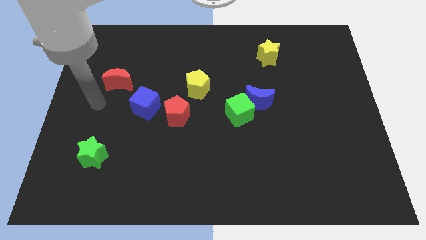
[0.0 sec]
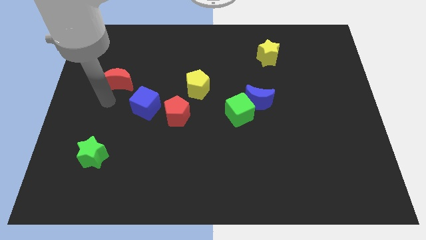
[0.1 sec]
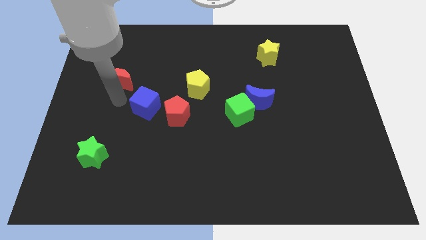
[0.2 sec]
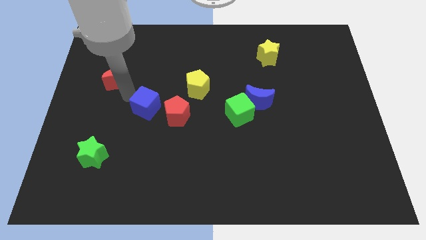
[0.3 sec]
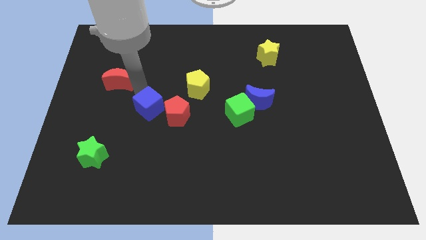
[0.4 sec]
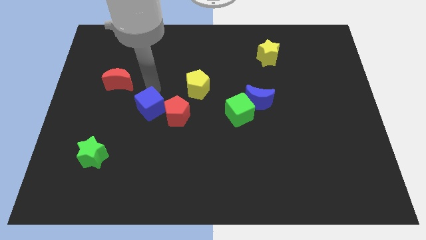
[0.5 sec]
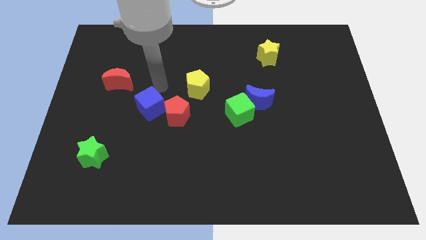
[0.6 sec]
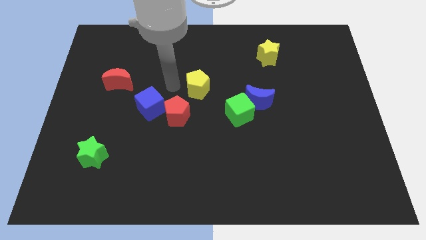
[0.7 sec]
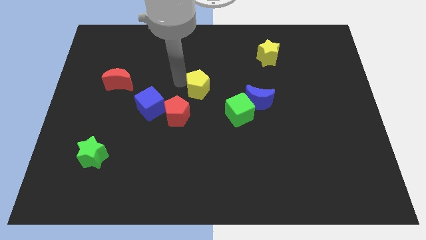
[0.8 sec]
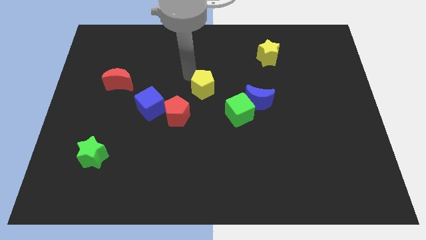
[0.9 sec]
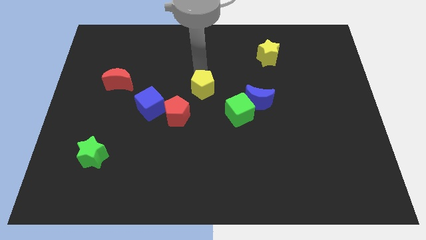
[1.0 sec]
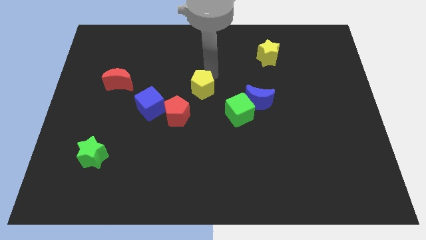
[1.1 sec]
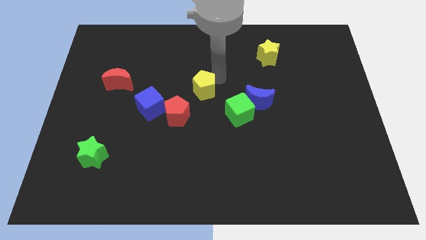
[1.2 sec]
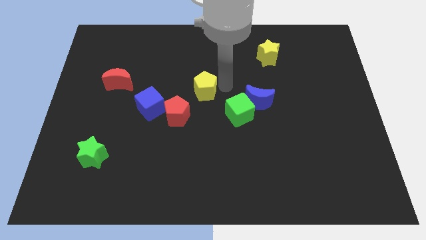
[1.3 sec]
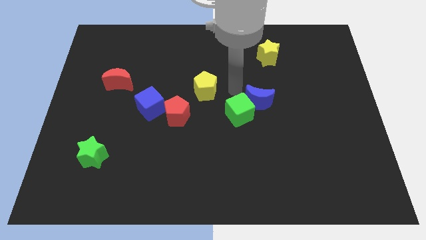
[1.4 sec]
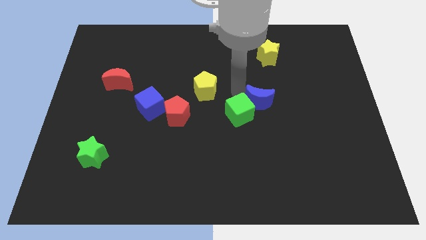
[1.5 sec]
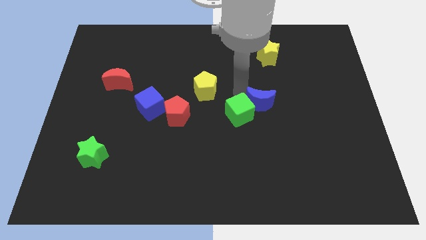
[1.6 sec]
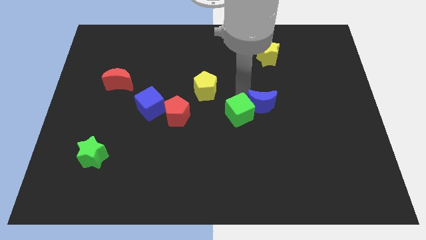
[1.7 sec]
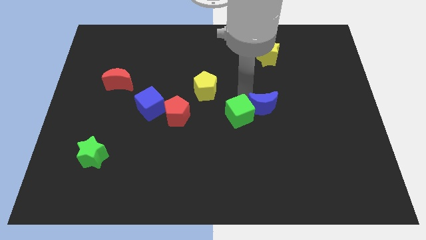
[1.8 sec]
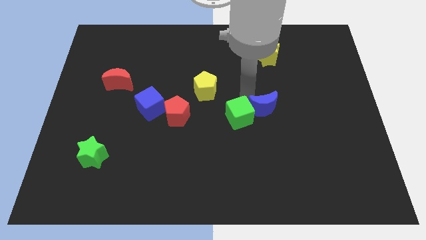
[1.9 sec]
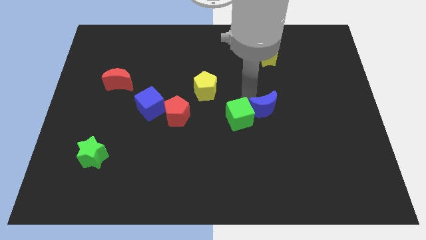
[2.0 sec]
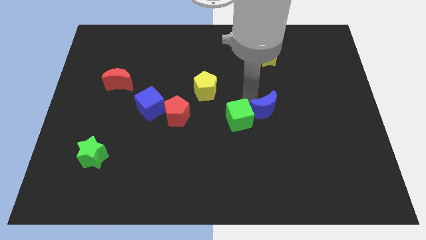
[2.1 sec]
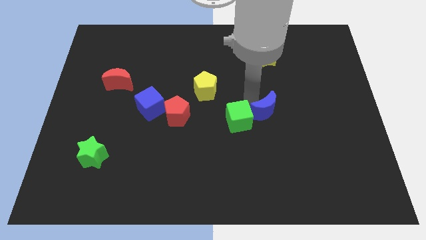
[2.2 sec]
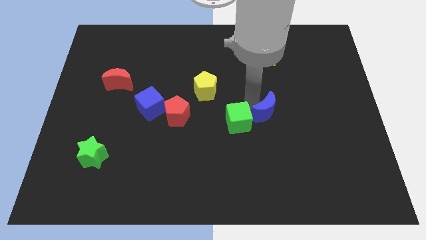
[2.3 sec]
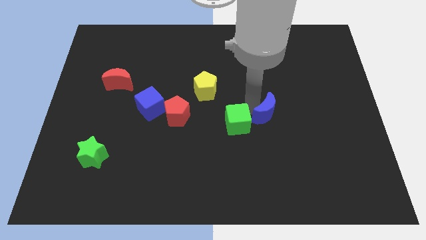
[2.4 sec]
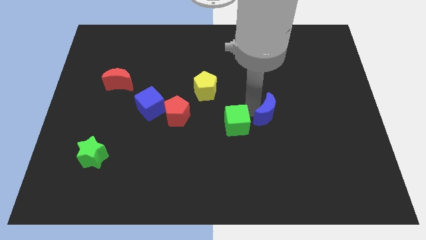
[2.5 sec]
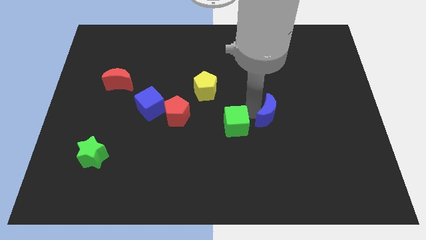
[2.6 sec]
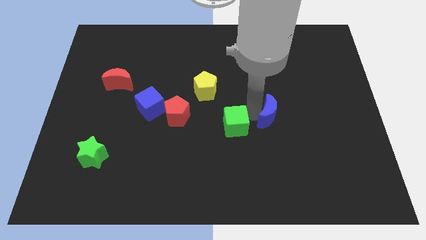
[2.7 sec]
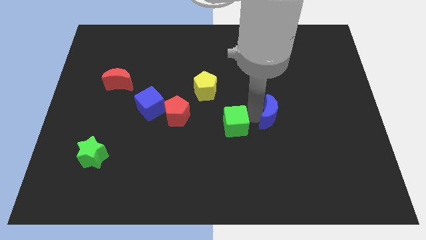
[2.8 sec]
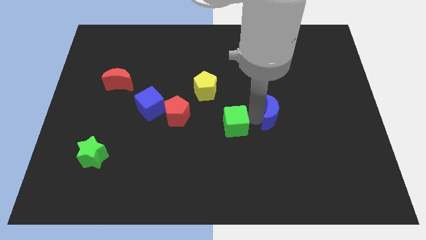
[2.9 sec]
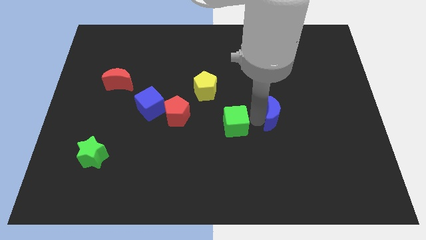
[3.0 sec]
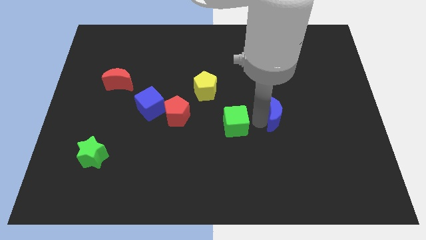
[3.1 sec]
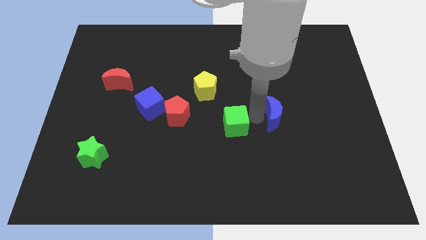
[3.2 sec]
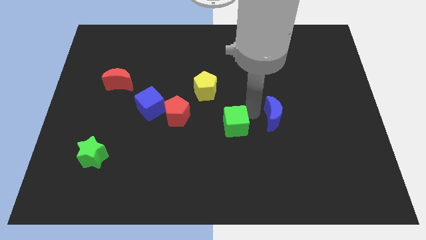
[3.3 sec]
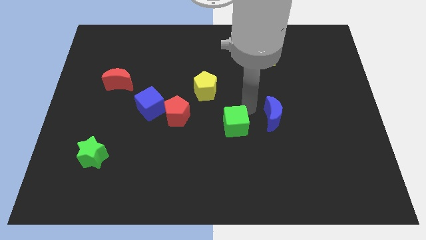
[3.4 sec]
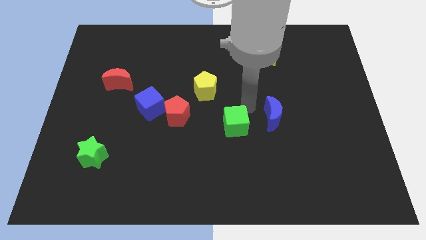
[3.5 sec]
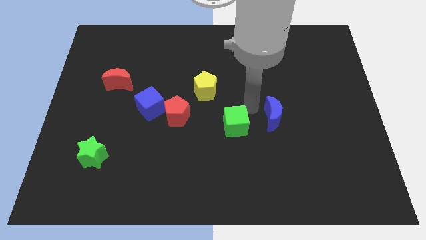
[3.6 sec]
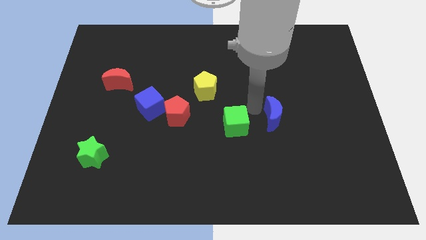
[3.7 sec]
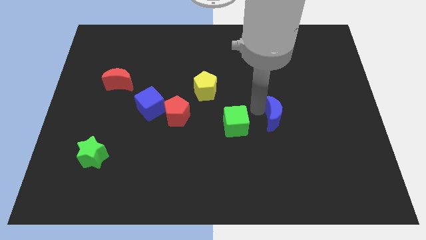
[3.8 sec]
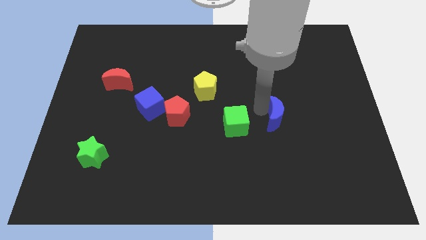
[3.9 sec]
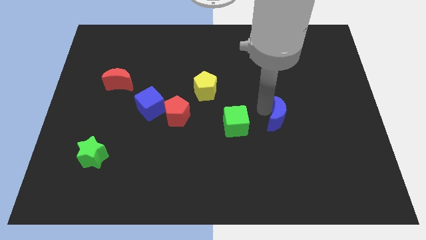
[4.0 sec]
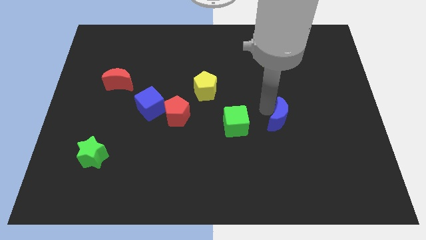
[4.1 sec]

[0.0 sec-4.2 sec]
slightly push the blue moon down and then to the right

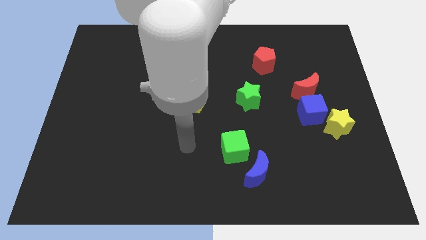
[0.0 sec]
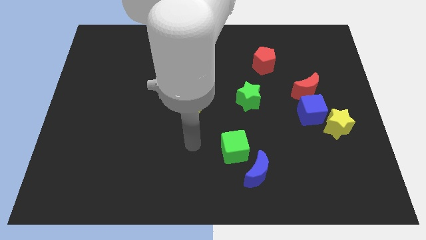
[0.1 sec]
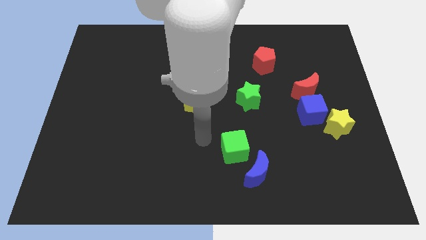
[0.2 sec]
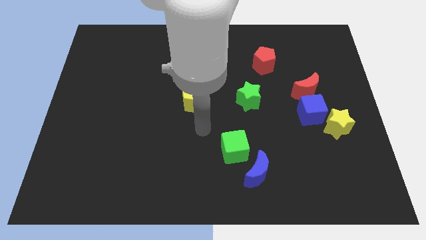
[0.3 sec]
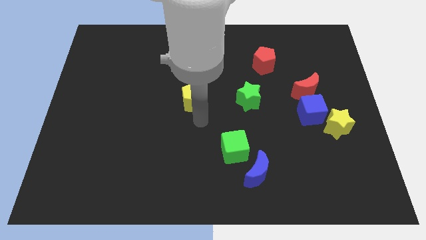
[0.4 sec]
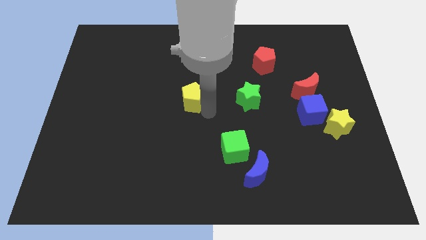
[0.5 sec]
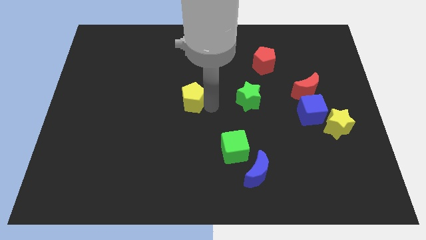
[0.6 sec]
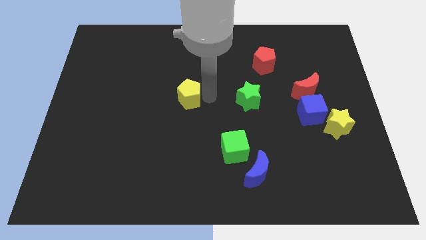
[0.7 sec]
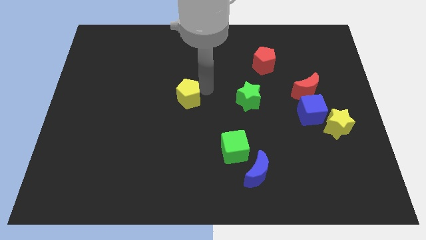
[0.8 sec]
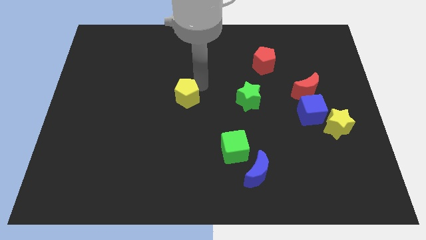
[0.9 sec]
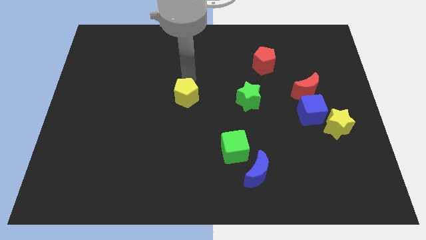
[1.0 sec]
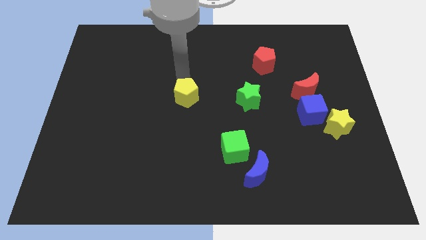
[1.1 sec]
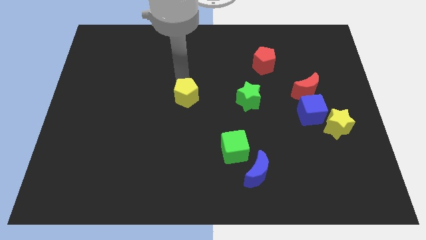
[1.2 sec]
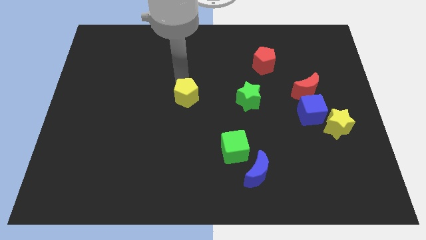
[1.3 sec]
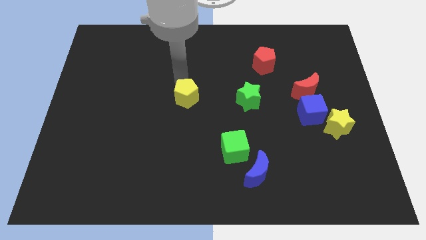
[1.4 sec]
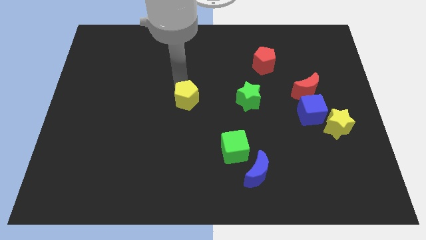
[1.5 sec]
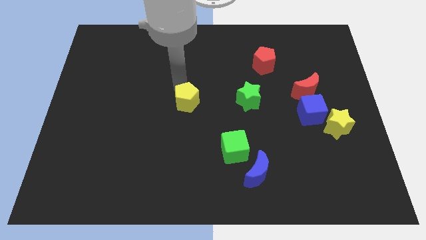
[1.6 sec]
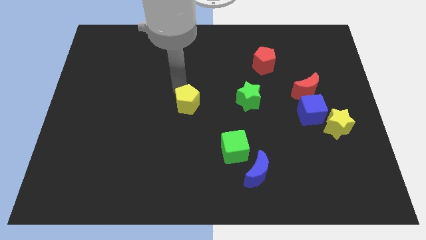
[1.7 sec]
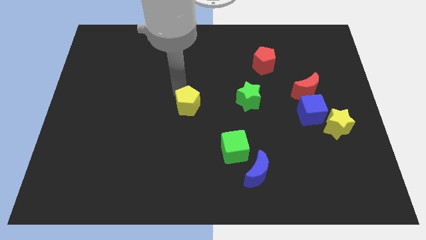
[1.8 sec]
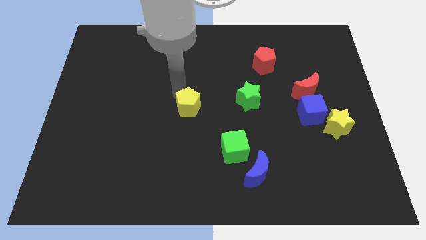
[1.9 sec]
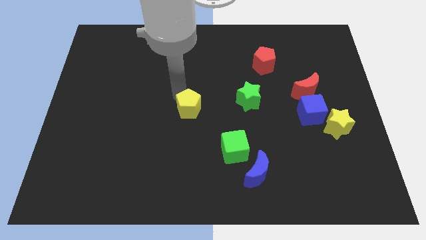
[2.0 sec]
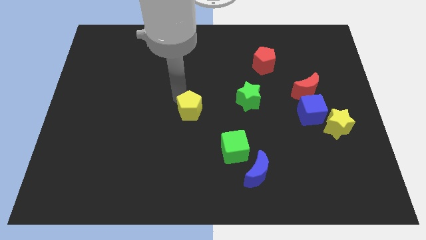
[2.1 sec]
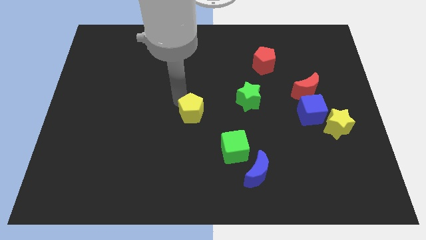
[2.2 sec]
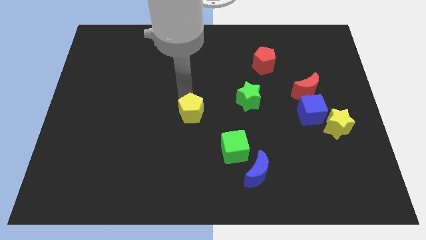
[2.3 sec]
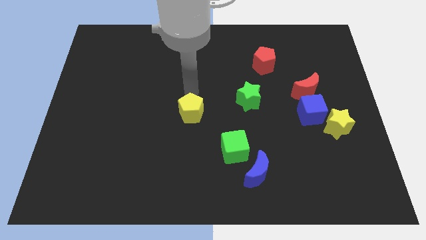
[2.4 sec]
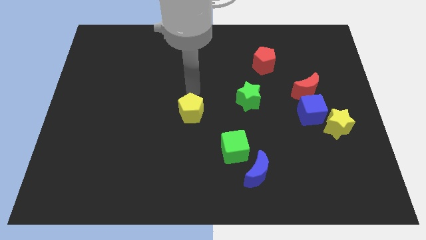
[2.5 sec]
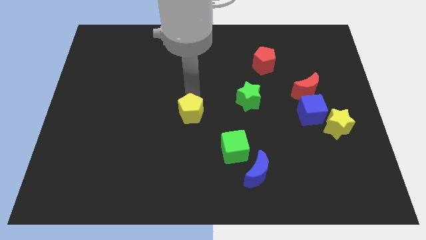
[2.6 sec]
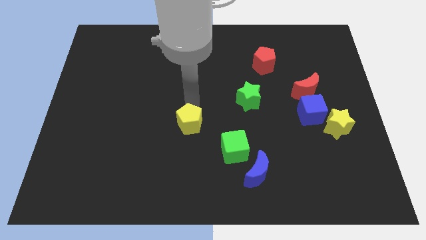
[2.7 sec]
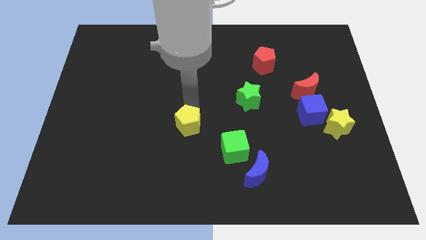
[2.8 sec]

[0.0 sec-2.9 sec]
slide the yellow pentagon downwards a bit

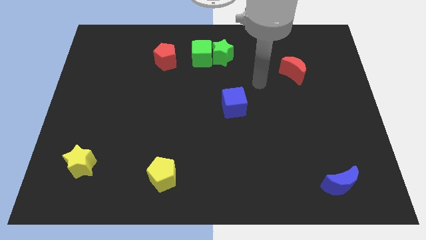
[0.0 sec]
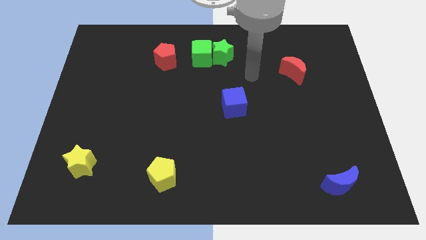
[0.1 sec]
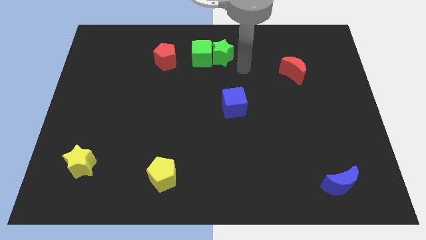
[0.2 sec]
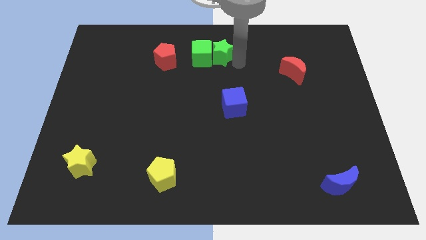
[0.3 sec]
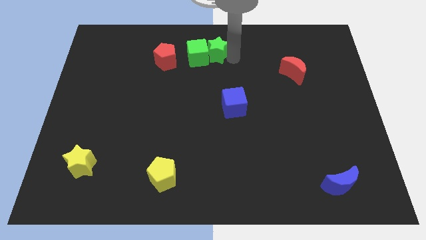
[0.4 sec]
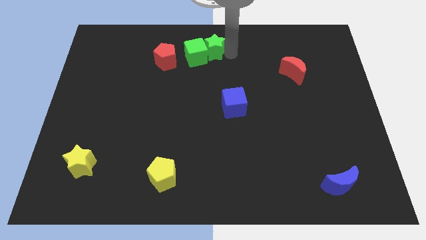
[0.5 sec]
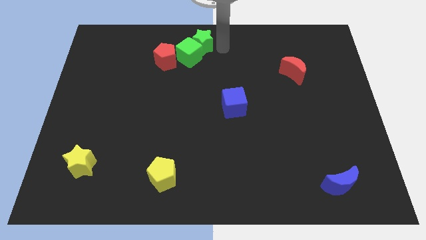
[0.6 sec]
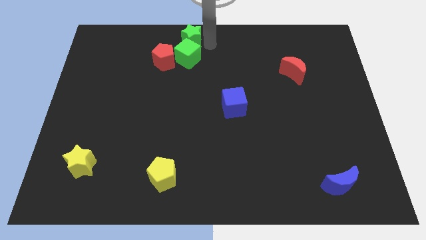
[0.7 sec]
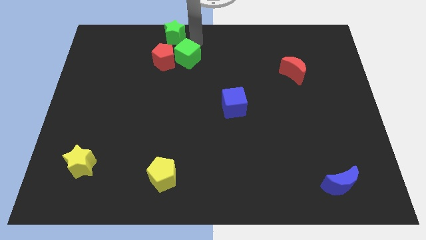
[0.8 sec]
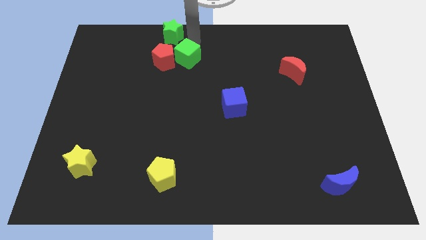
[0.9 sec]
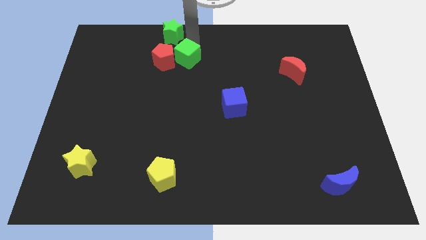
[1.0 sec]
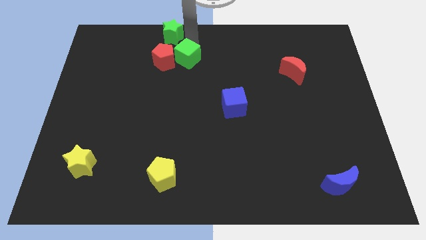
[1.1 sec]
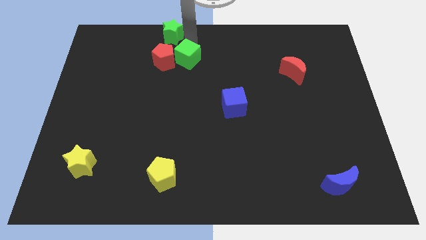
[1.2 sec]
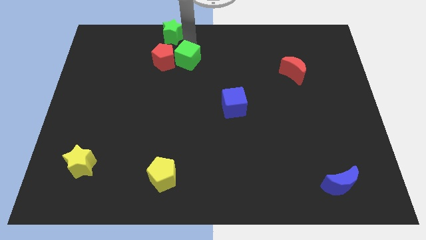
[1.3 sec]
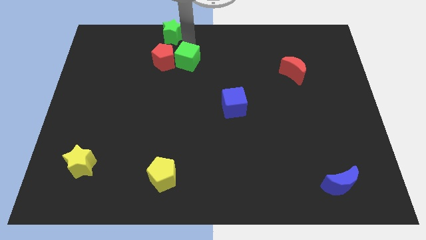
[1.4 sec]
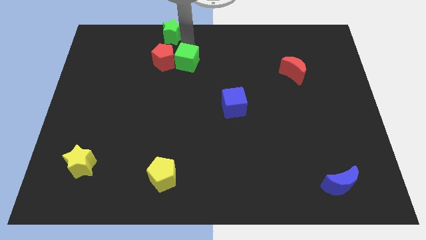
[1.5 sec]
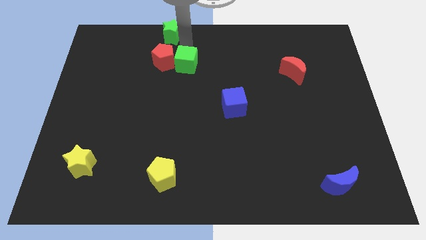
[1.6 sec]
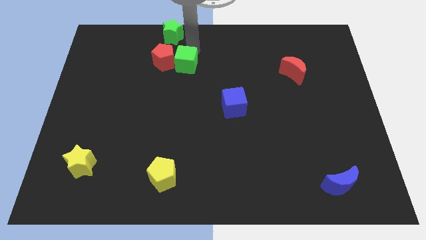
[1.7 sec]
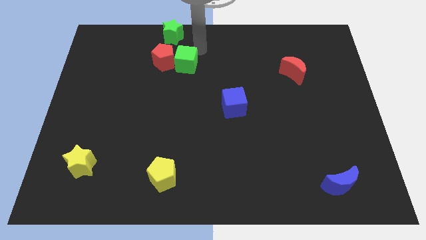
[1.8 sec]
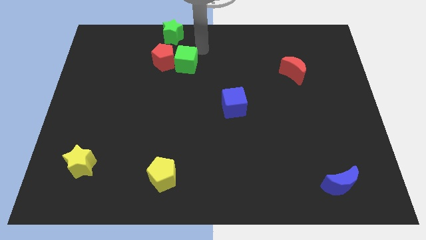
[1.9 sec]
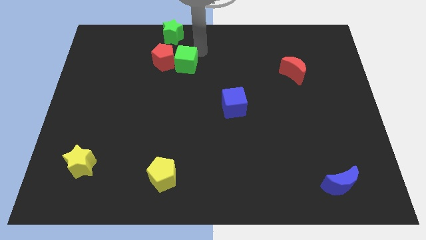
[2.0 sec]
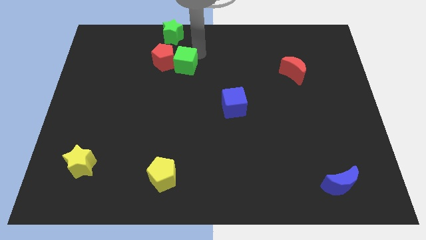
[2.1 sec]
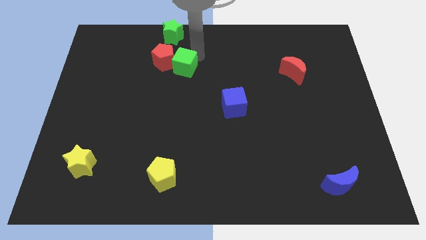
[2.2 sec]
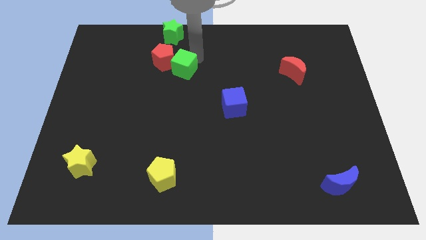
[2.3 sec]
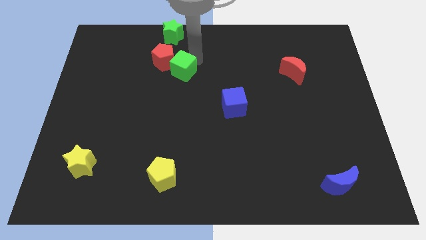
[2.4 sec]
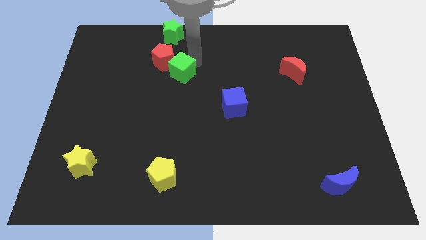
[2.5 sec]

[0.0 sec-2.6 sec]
move the green cube downwards and left a little
